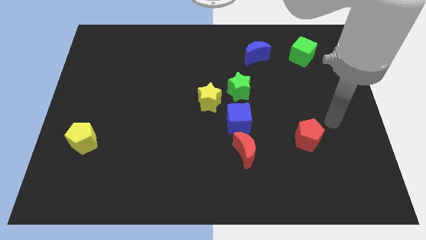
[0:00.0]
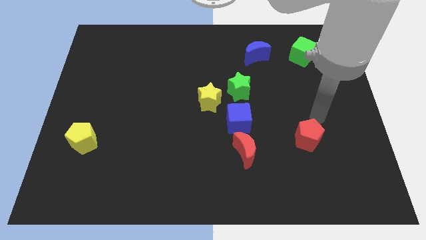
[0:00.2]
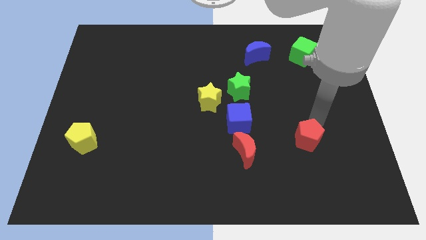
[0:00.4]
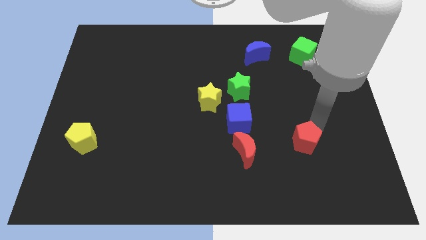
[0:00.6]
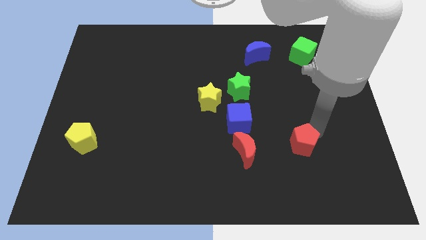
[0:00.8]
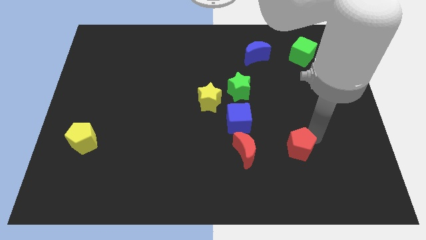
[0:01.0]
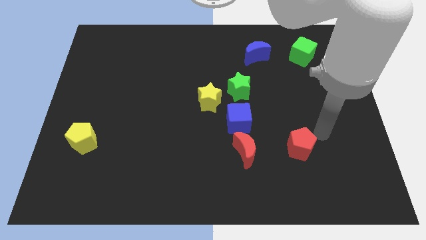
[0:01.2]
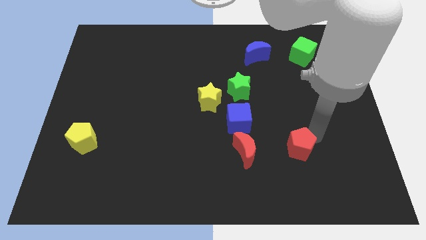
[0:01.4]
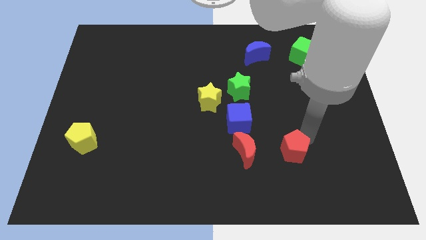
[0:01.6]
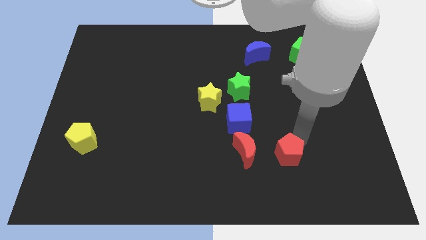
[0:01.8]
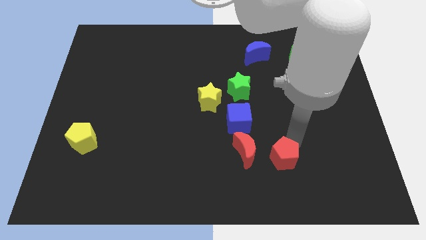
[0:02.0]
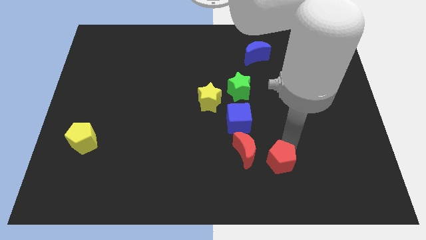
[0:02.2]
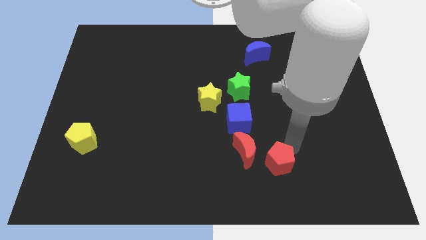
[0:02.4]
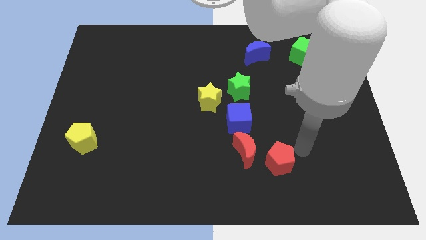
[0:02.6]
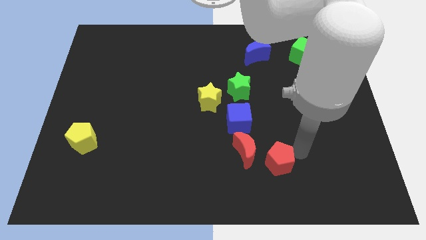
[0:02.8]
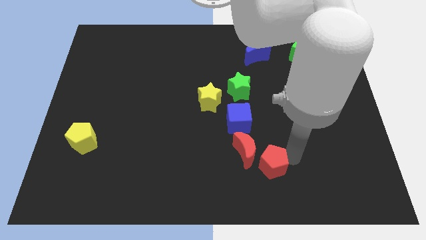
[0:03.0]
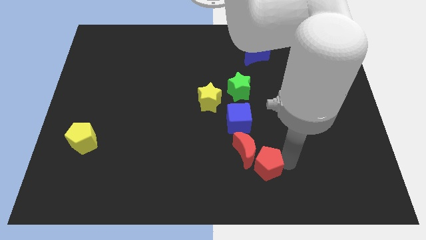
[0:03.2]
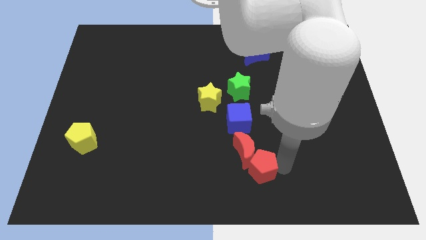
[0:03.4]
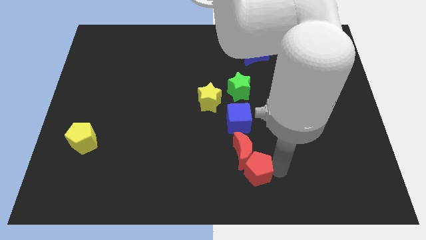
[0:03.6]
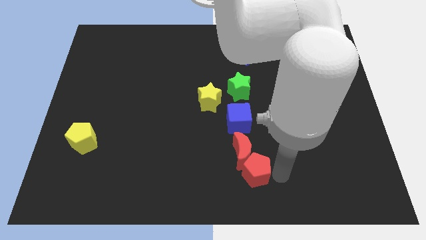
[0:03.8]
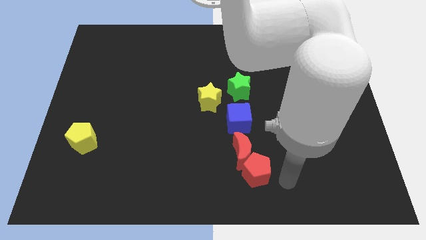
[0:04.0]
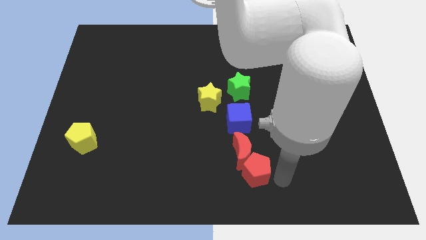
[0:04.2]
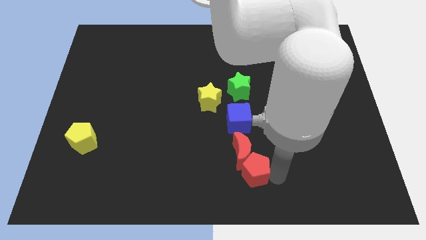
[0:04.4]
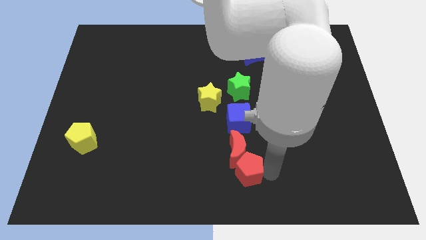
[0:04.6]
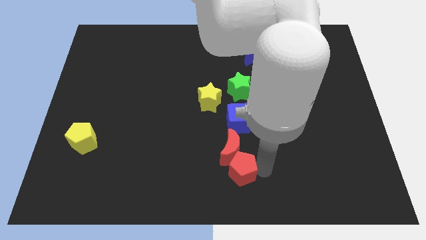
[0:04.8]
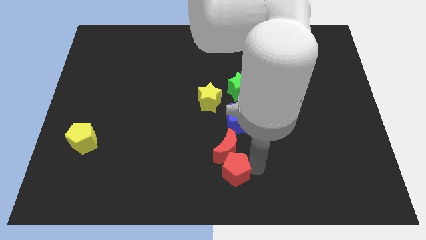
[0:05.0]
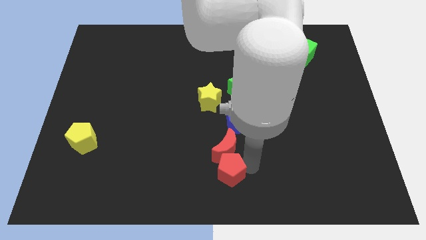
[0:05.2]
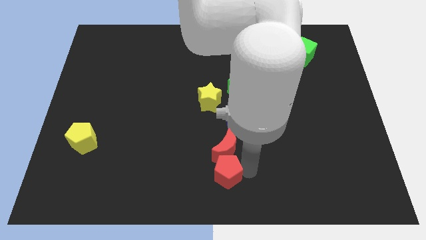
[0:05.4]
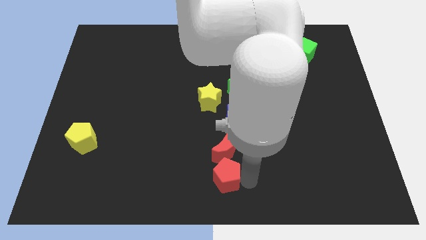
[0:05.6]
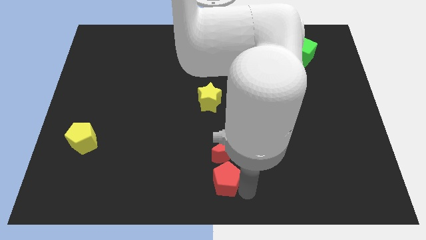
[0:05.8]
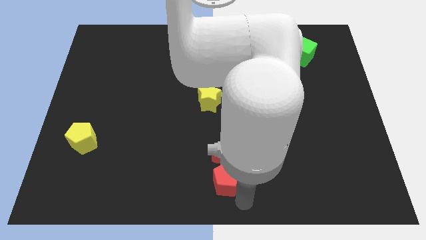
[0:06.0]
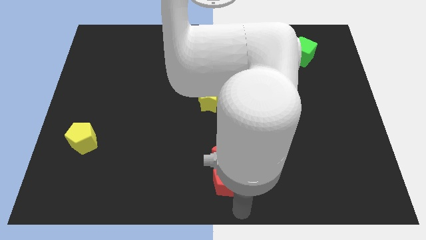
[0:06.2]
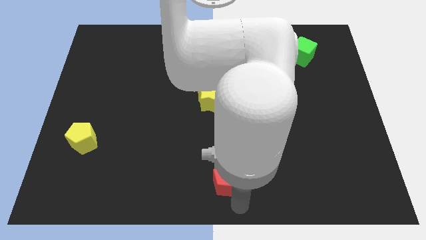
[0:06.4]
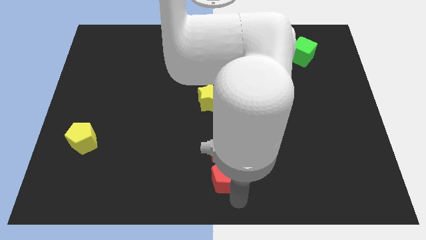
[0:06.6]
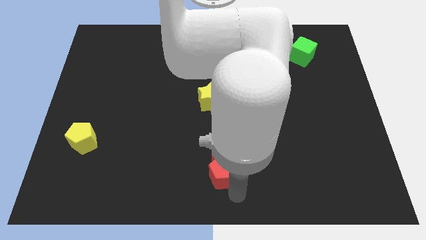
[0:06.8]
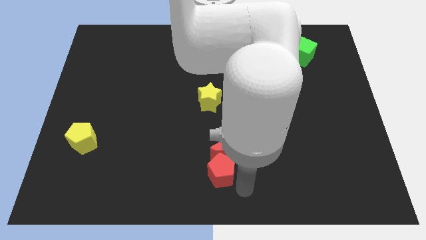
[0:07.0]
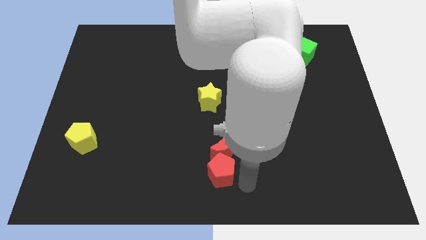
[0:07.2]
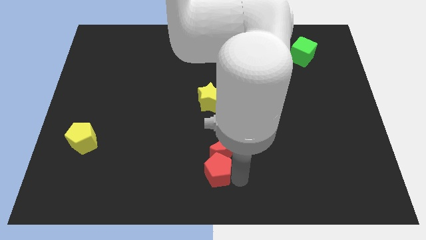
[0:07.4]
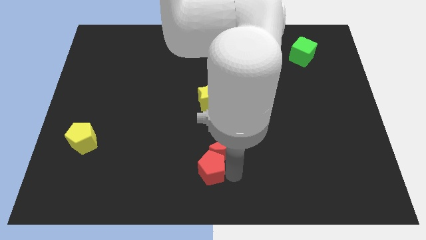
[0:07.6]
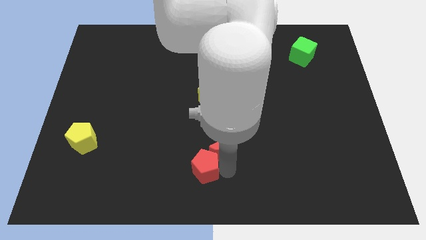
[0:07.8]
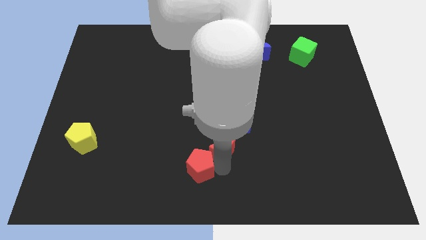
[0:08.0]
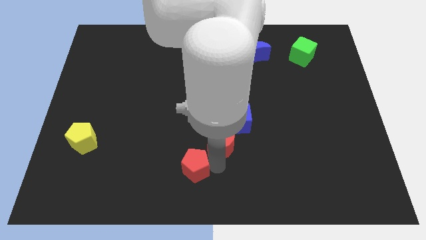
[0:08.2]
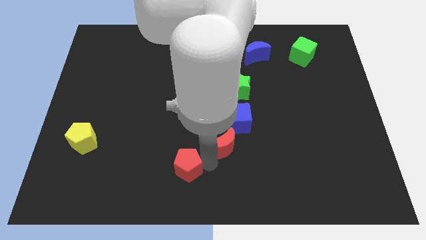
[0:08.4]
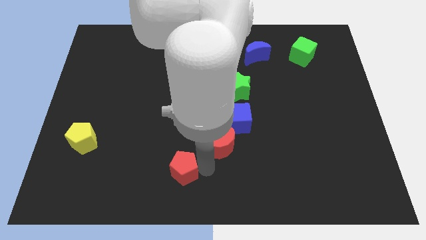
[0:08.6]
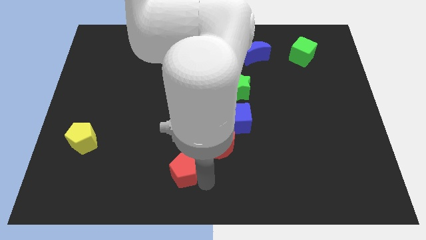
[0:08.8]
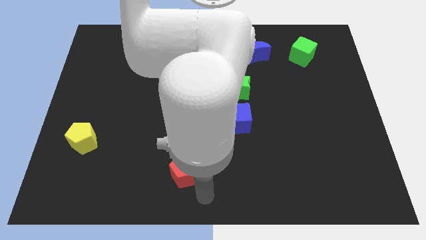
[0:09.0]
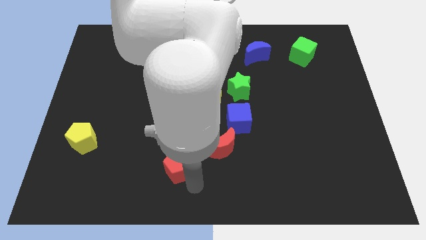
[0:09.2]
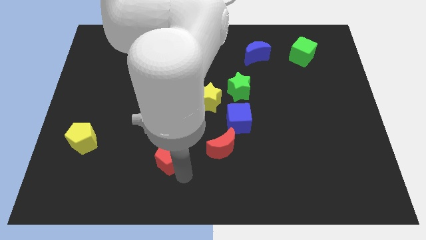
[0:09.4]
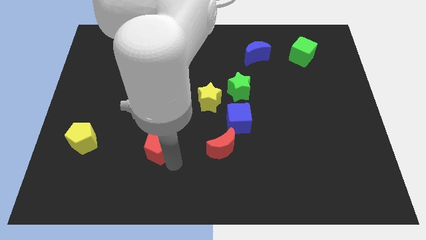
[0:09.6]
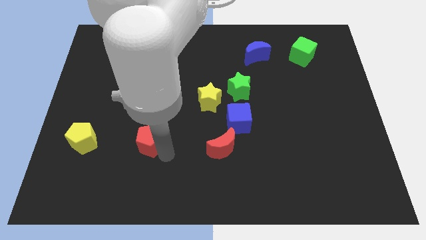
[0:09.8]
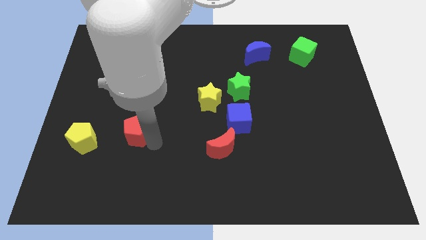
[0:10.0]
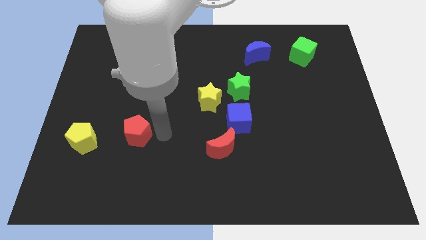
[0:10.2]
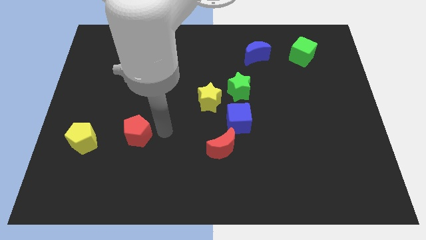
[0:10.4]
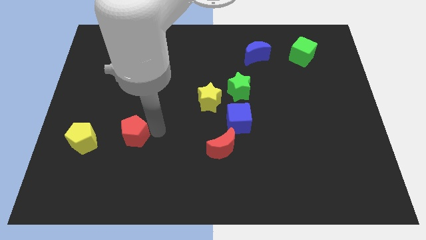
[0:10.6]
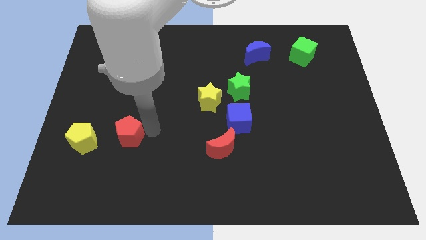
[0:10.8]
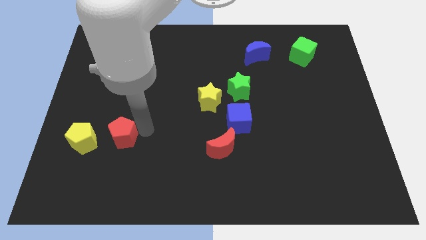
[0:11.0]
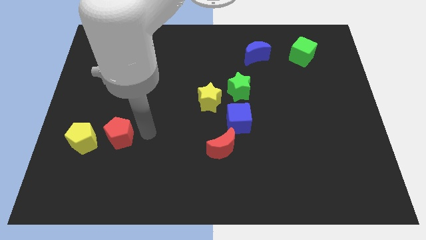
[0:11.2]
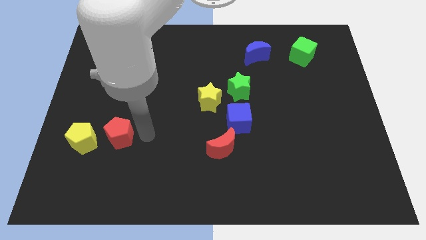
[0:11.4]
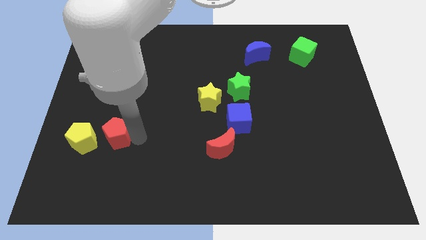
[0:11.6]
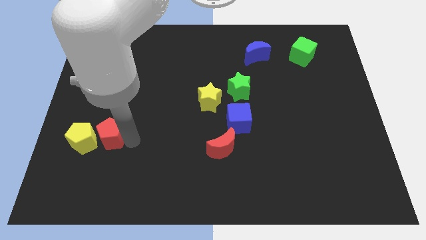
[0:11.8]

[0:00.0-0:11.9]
push the red pentagon towards the yellow pentagon

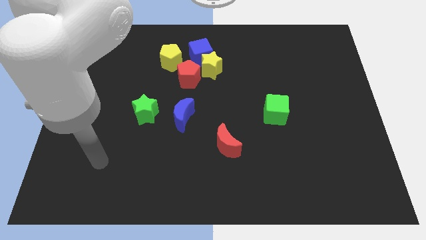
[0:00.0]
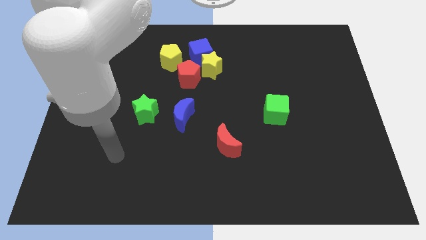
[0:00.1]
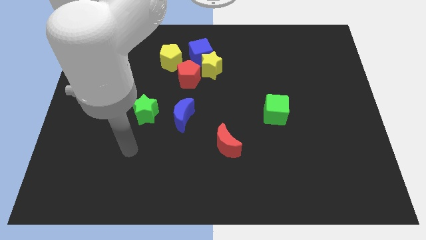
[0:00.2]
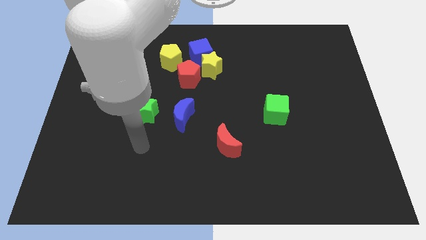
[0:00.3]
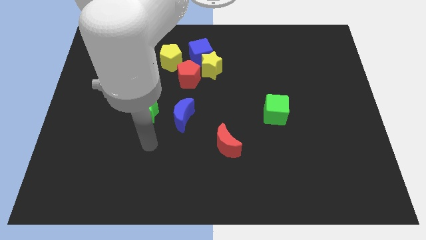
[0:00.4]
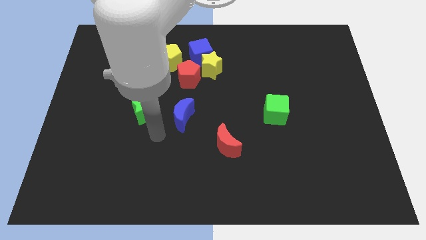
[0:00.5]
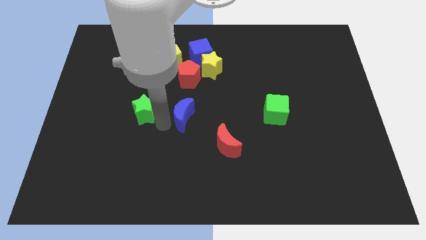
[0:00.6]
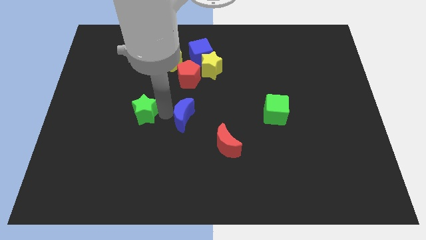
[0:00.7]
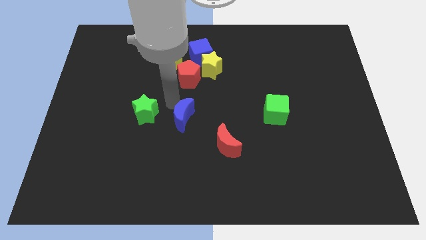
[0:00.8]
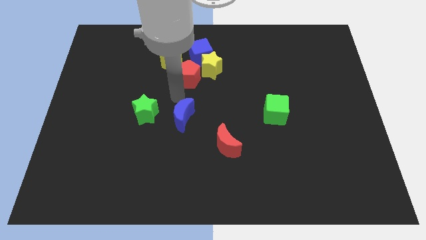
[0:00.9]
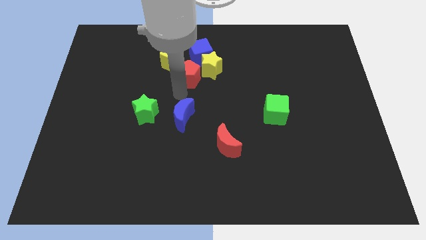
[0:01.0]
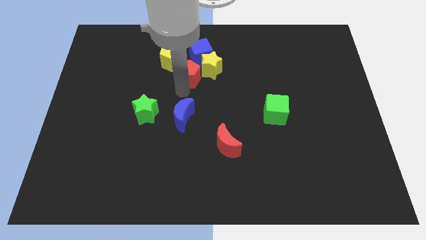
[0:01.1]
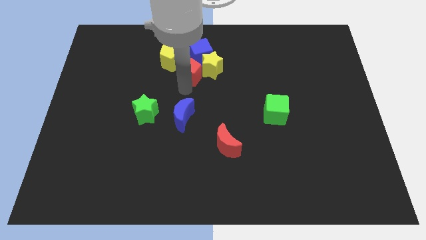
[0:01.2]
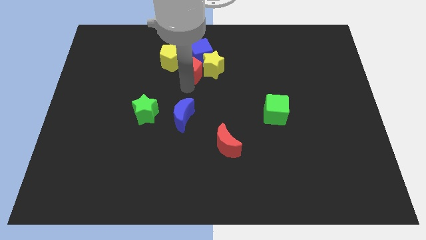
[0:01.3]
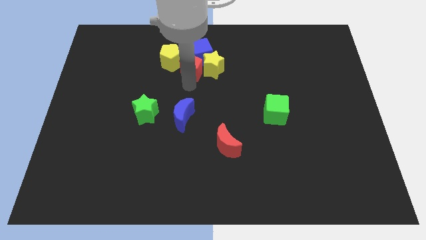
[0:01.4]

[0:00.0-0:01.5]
push the red pentagon next to the blue cube

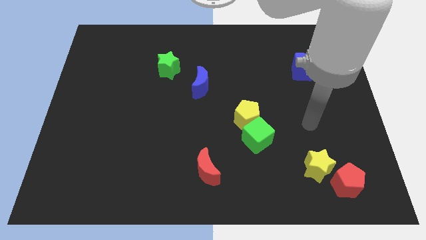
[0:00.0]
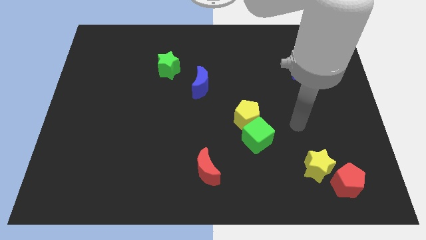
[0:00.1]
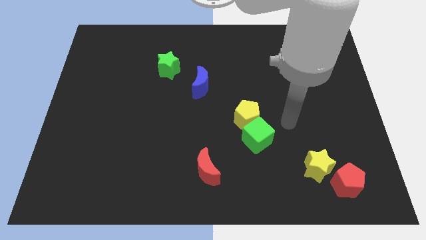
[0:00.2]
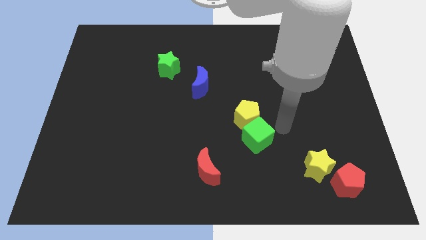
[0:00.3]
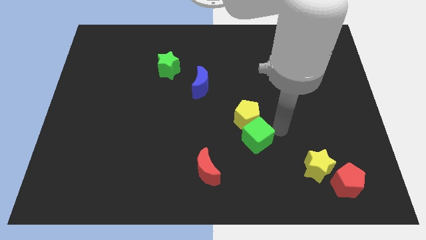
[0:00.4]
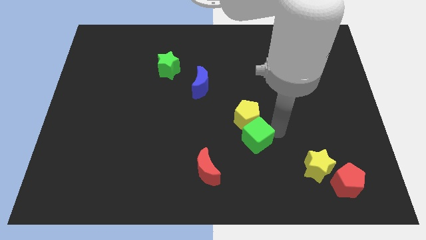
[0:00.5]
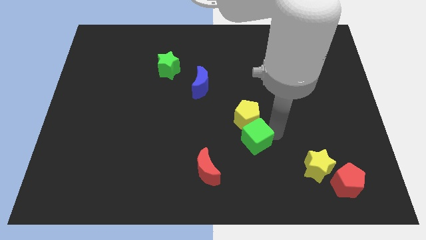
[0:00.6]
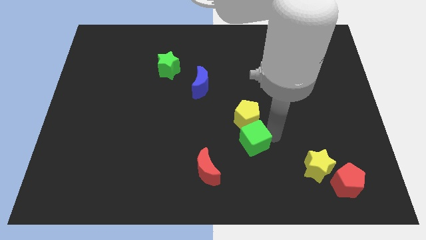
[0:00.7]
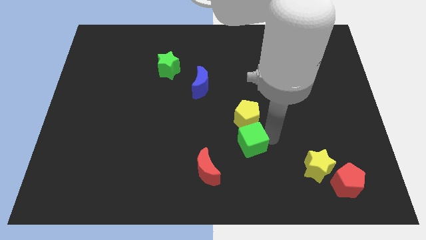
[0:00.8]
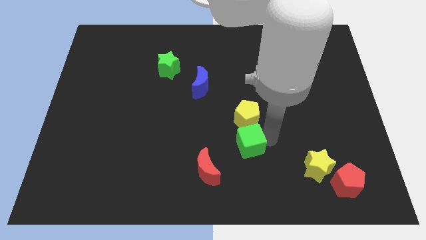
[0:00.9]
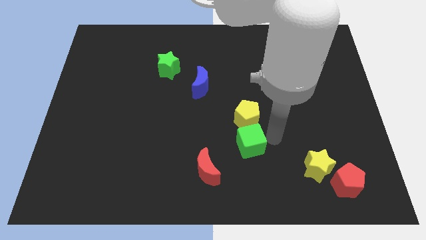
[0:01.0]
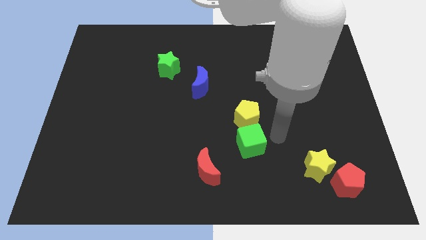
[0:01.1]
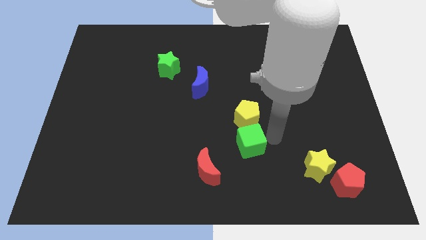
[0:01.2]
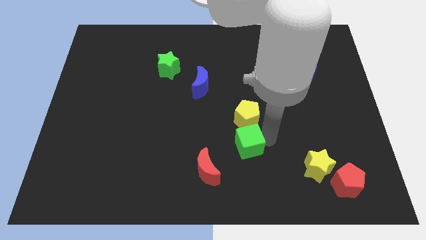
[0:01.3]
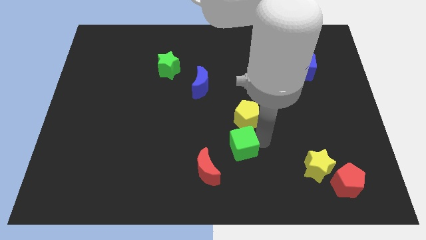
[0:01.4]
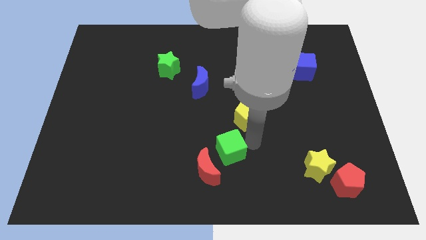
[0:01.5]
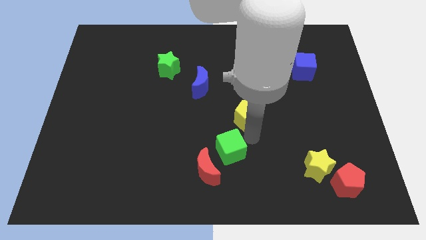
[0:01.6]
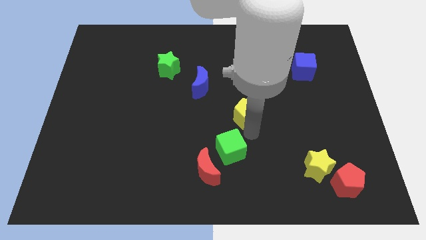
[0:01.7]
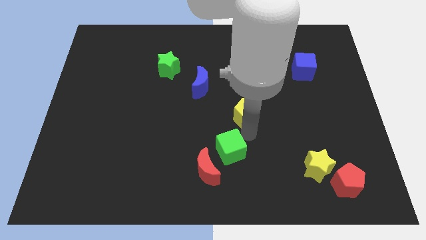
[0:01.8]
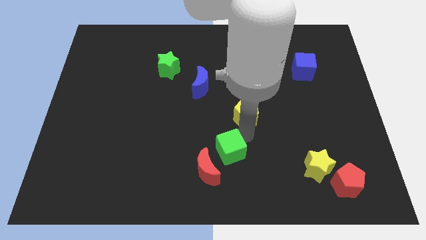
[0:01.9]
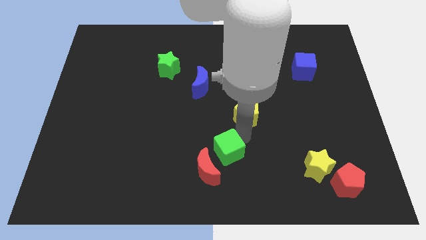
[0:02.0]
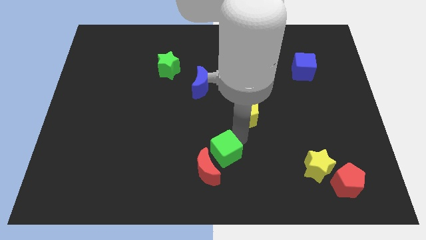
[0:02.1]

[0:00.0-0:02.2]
put the green cube close to the red moon
